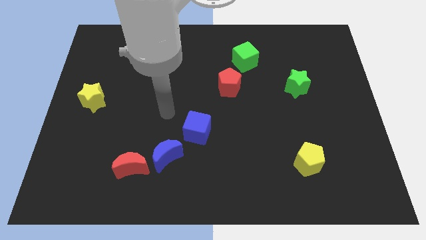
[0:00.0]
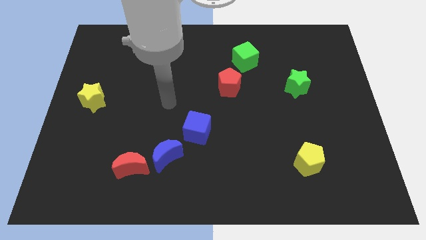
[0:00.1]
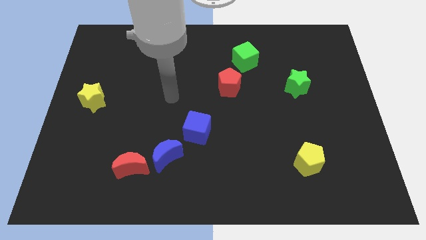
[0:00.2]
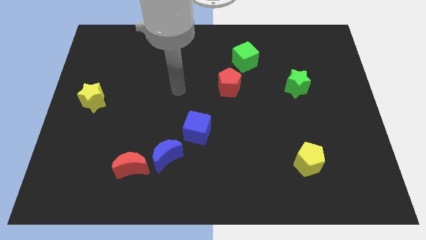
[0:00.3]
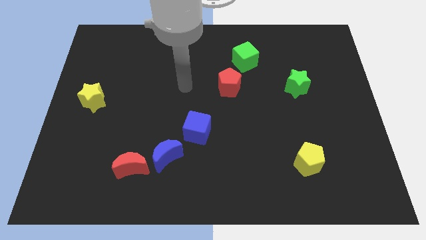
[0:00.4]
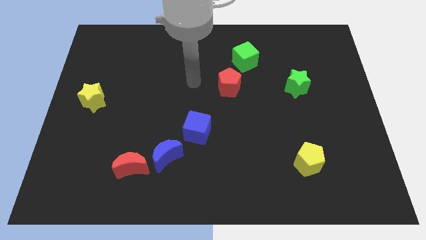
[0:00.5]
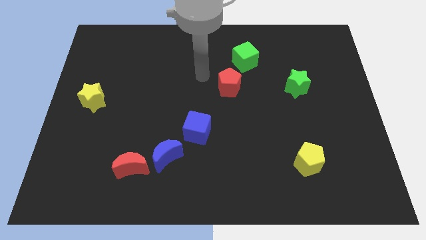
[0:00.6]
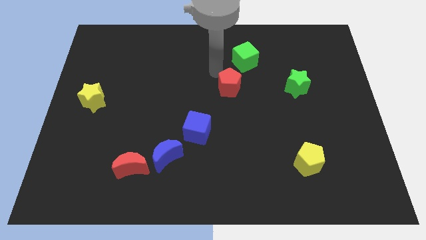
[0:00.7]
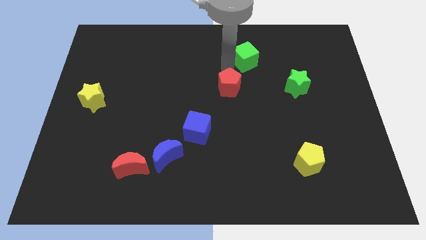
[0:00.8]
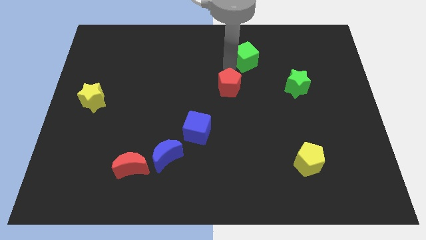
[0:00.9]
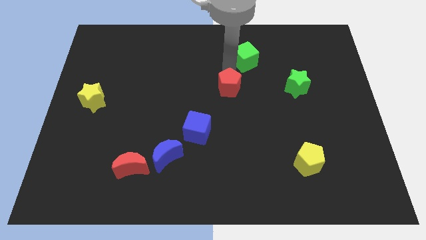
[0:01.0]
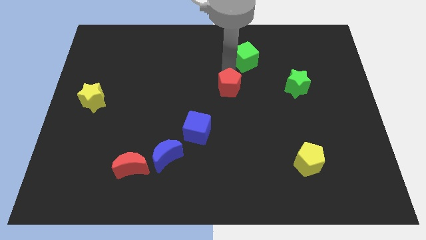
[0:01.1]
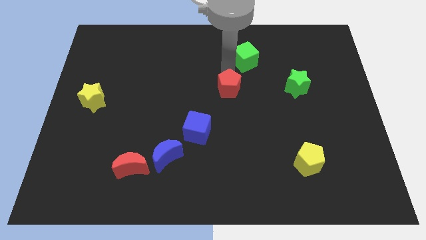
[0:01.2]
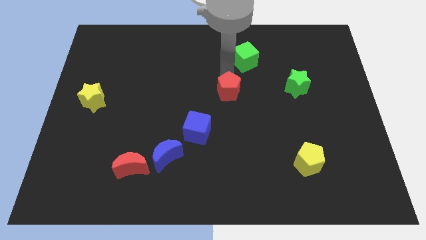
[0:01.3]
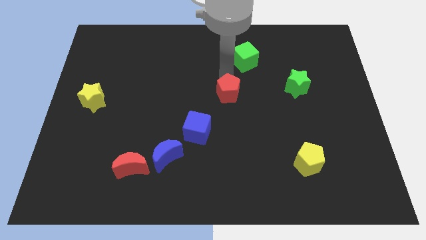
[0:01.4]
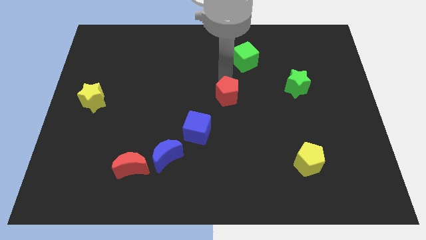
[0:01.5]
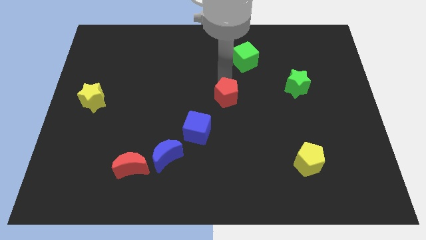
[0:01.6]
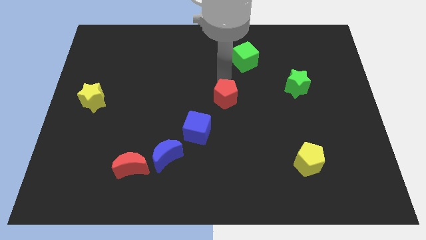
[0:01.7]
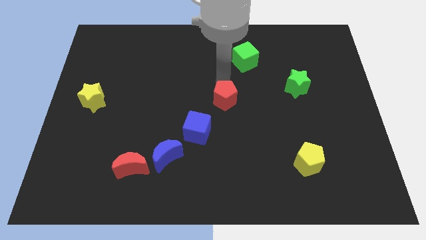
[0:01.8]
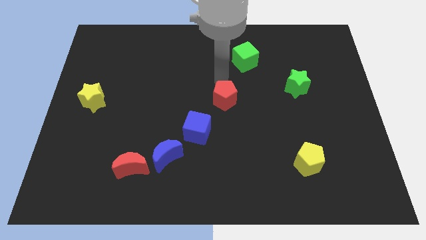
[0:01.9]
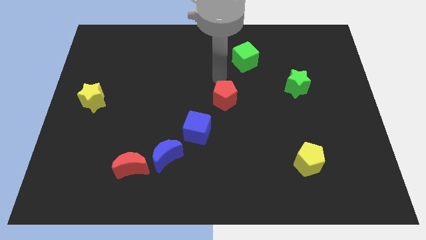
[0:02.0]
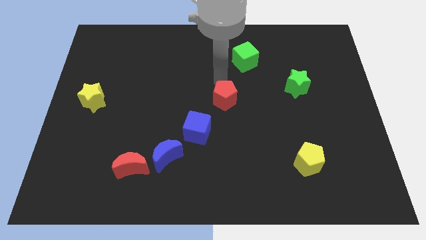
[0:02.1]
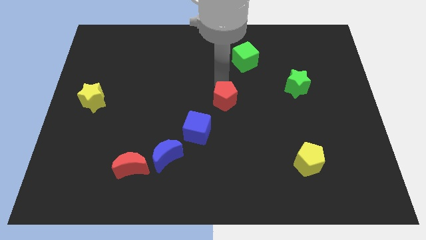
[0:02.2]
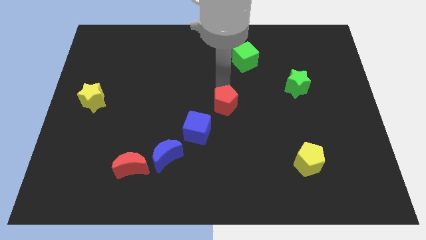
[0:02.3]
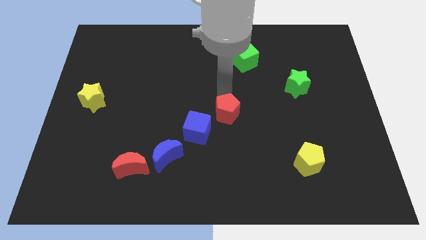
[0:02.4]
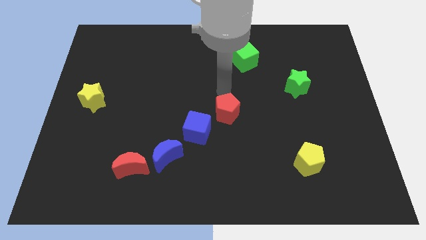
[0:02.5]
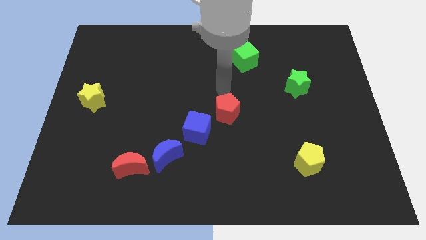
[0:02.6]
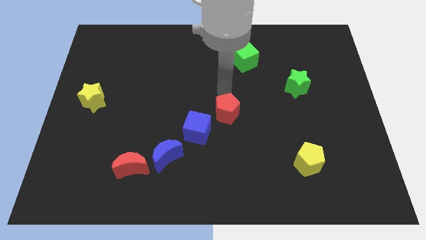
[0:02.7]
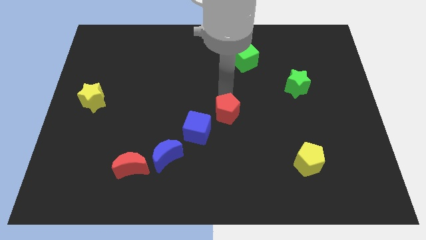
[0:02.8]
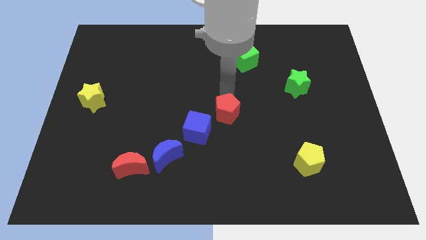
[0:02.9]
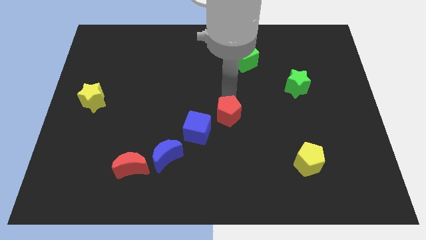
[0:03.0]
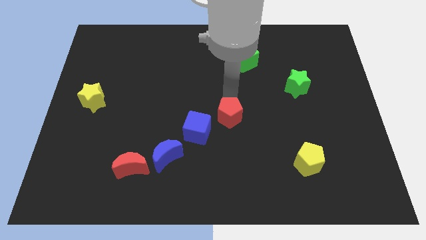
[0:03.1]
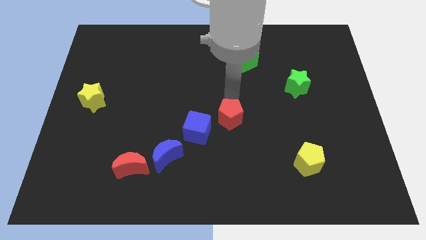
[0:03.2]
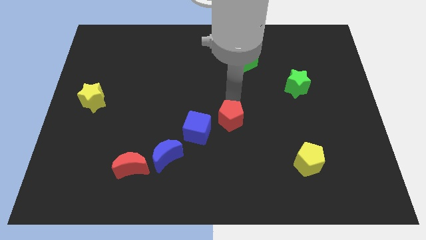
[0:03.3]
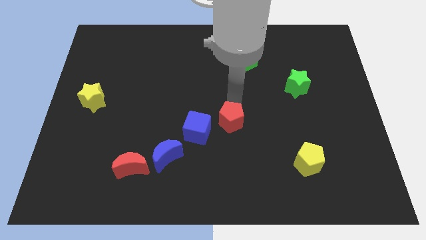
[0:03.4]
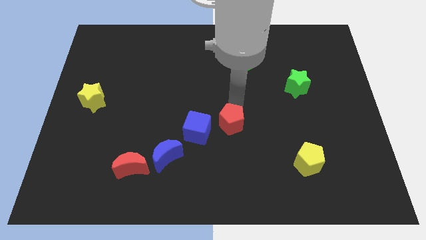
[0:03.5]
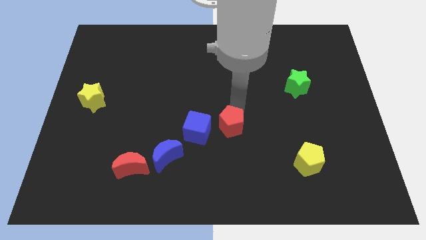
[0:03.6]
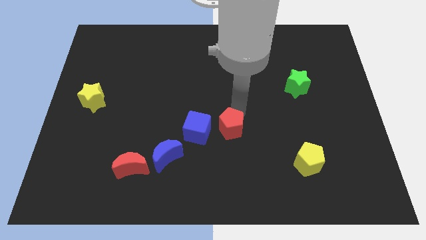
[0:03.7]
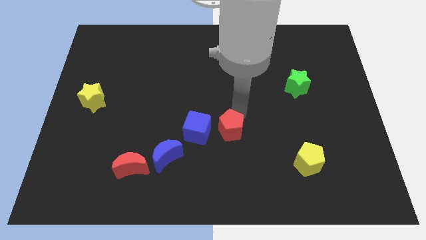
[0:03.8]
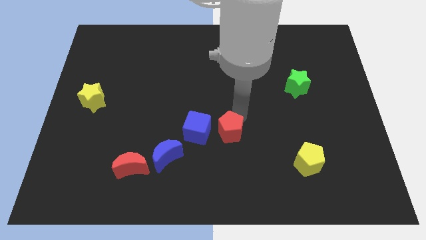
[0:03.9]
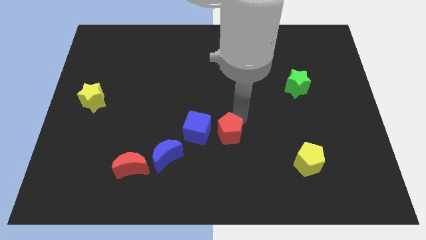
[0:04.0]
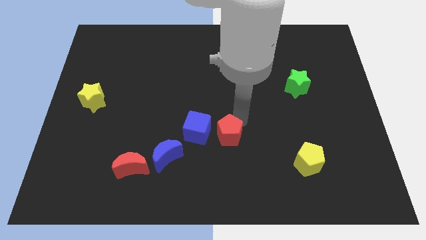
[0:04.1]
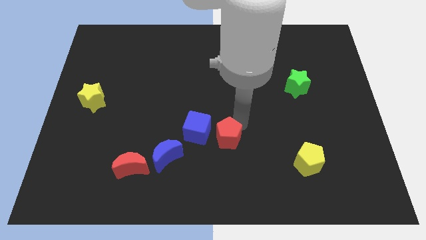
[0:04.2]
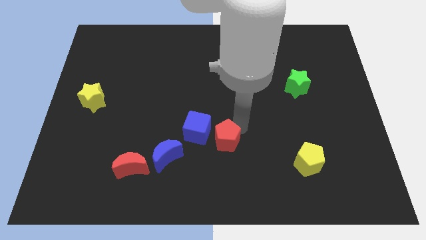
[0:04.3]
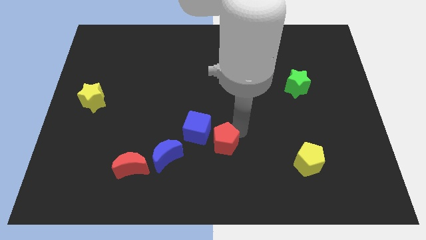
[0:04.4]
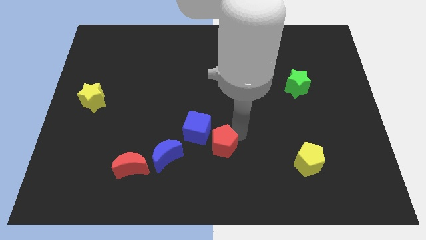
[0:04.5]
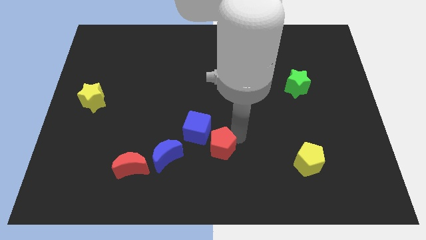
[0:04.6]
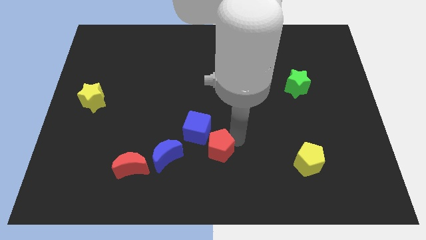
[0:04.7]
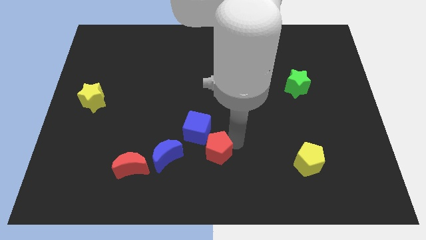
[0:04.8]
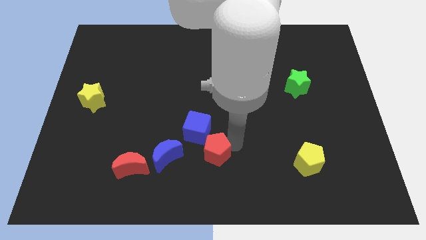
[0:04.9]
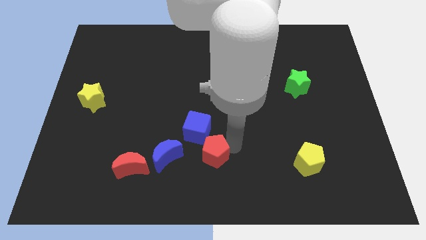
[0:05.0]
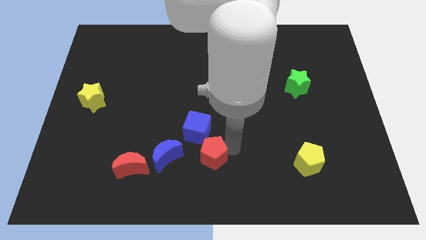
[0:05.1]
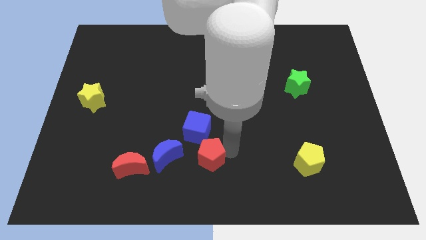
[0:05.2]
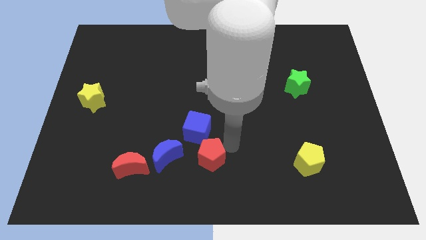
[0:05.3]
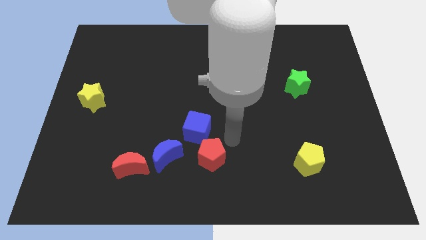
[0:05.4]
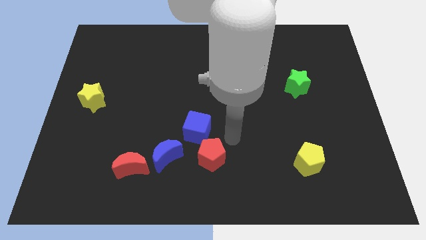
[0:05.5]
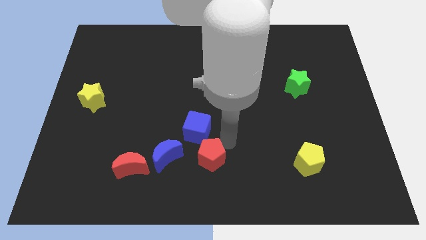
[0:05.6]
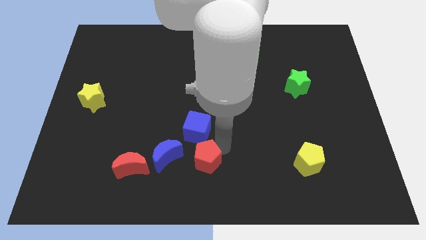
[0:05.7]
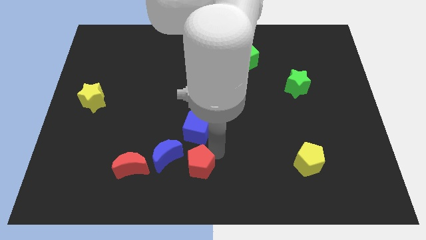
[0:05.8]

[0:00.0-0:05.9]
slide the red pentagon diagonally down and to the right of the blue moon

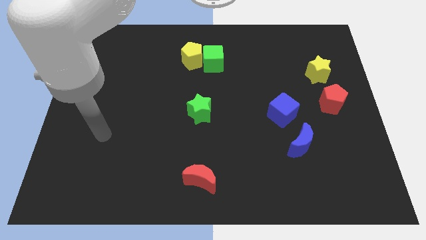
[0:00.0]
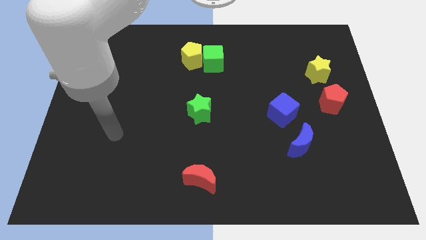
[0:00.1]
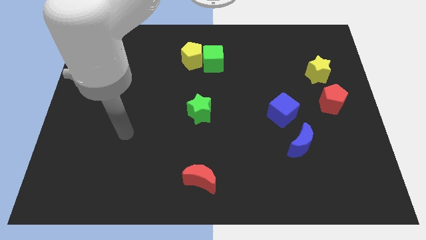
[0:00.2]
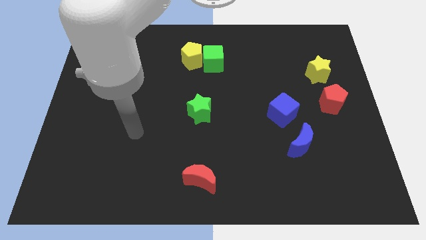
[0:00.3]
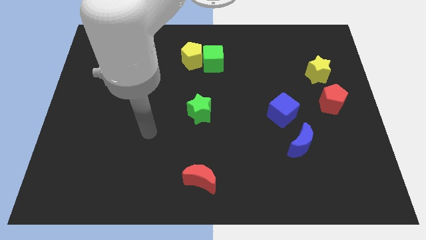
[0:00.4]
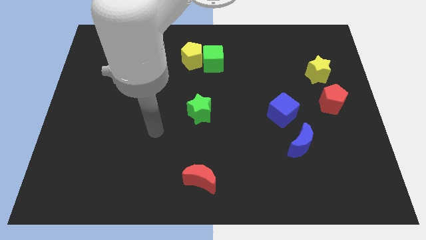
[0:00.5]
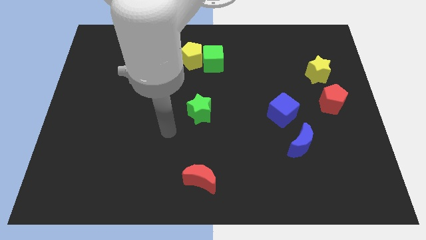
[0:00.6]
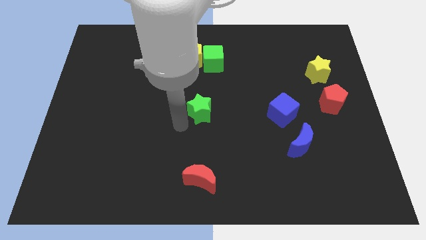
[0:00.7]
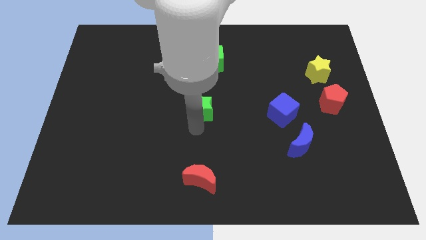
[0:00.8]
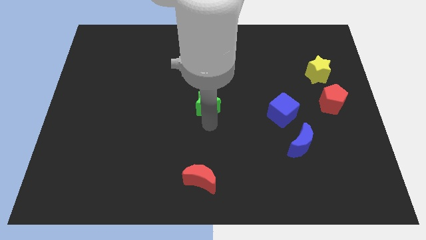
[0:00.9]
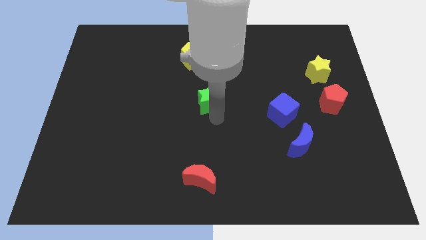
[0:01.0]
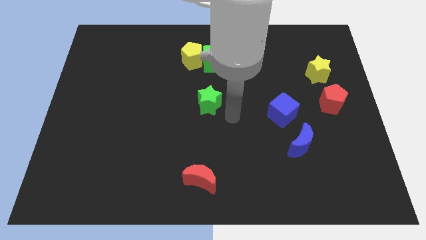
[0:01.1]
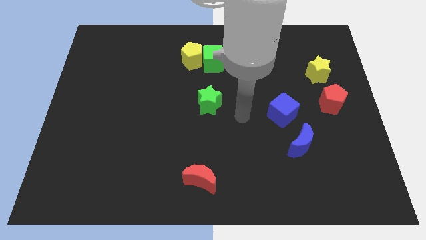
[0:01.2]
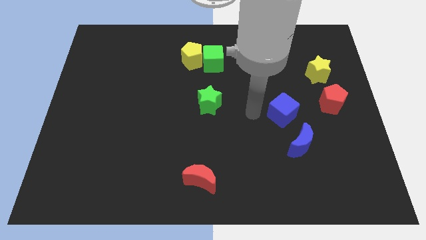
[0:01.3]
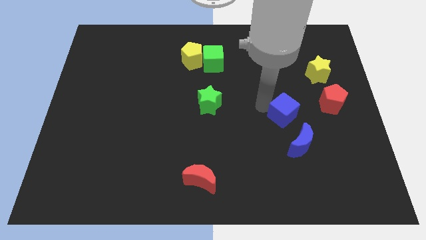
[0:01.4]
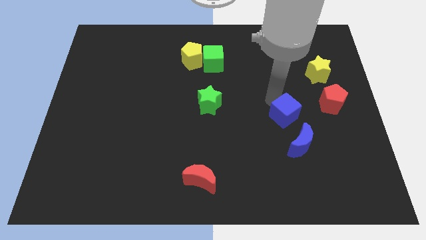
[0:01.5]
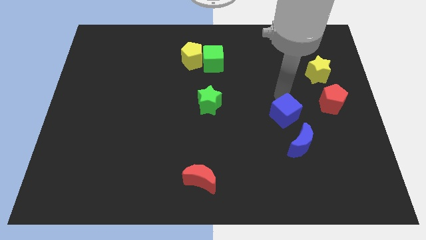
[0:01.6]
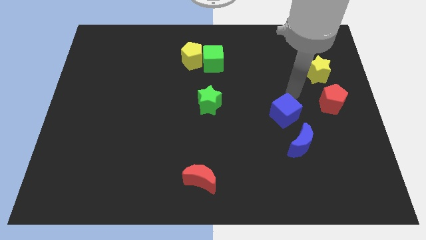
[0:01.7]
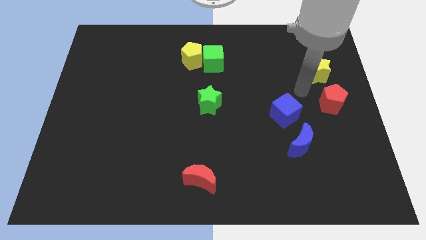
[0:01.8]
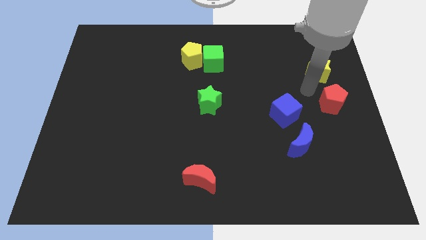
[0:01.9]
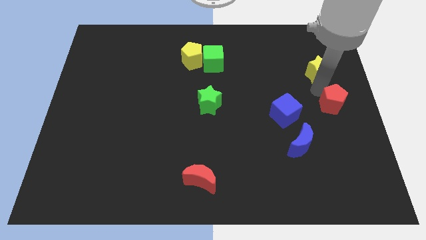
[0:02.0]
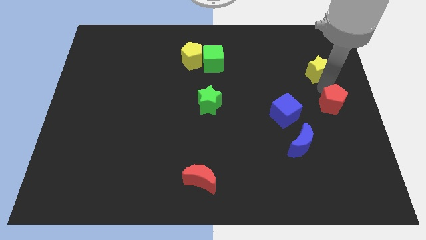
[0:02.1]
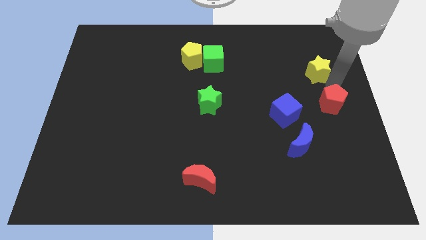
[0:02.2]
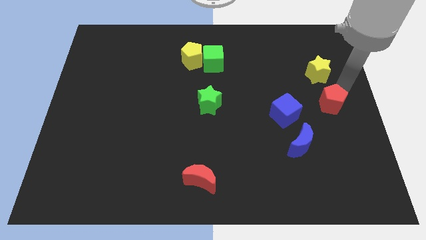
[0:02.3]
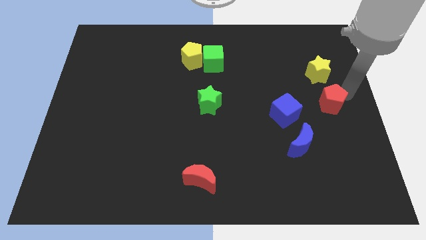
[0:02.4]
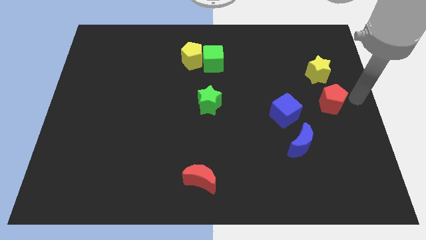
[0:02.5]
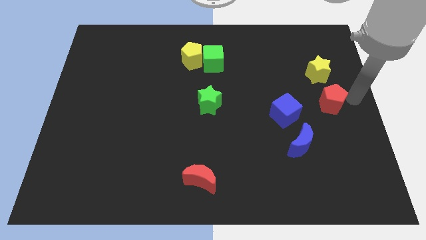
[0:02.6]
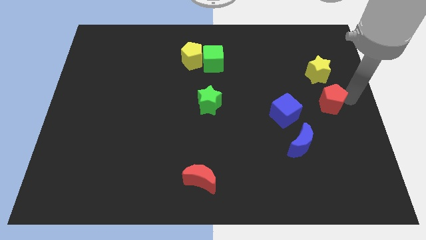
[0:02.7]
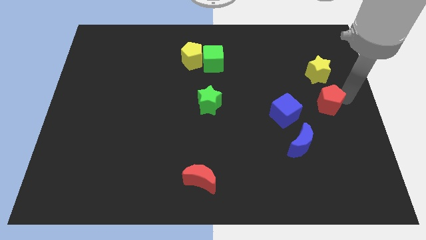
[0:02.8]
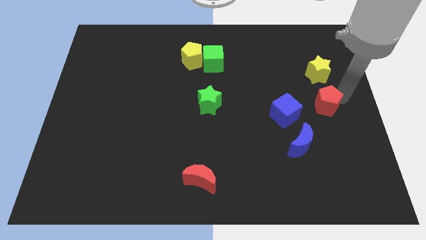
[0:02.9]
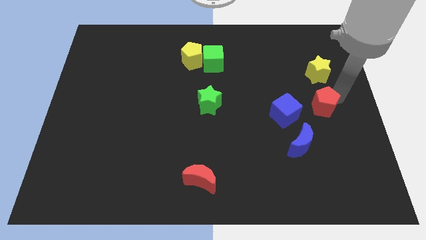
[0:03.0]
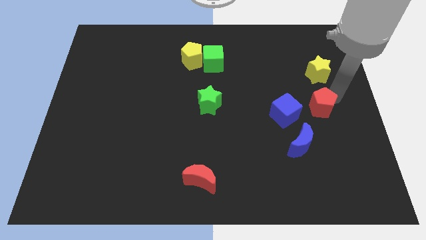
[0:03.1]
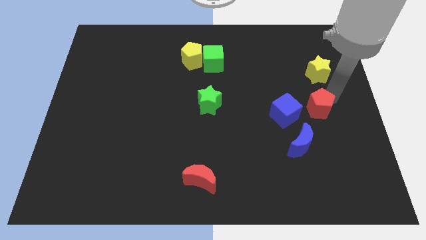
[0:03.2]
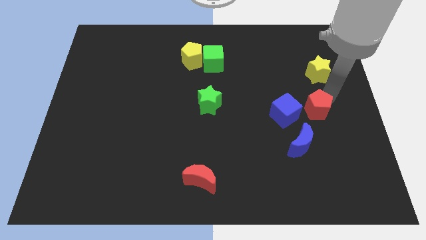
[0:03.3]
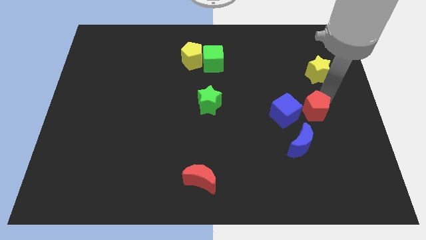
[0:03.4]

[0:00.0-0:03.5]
push the red pentagon to the top side of the blue moon
